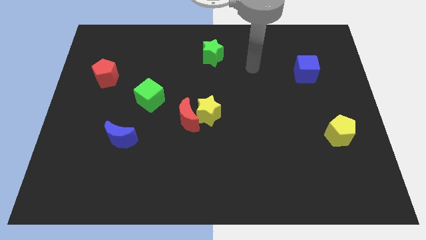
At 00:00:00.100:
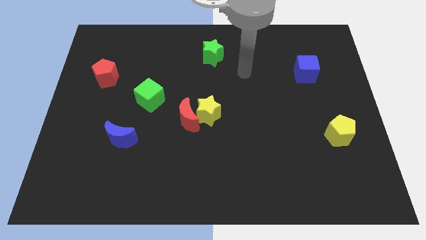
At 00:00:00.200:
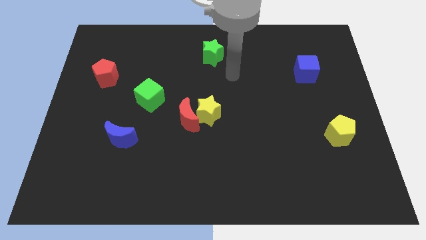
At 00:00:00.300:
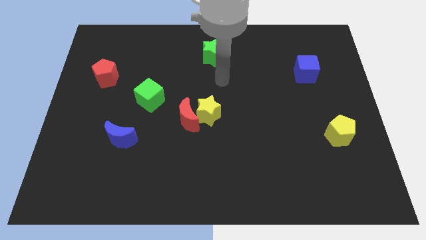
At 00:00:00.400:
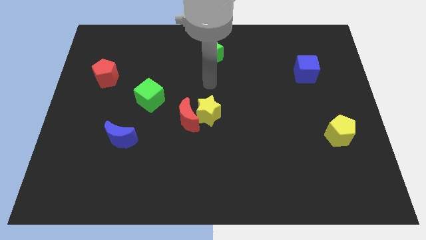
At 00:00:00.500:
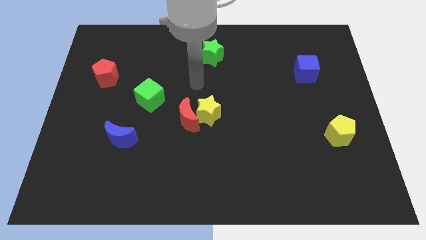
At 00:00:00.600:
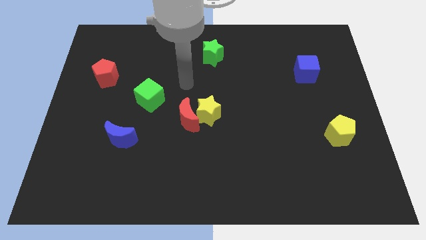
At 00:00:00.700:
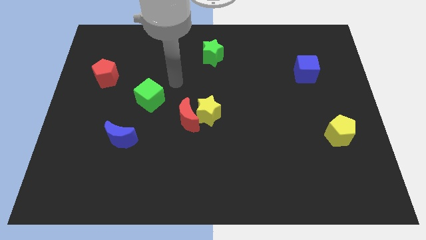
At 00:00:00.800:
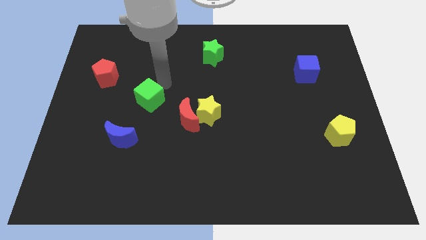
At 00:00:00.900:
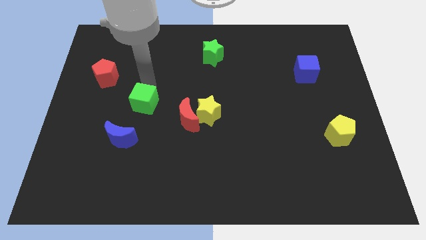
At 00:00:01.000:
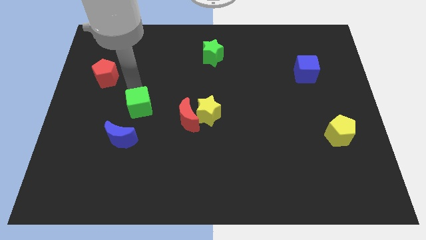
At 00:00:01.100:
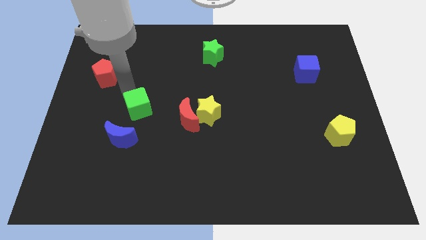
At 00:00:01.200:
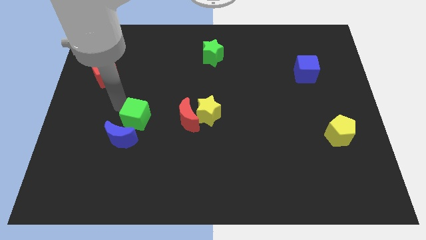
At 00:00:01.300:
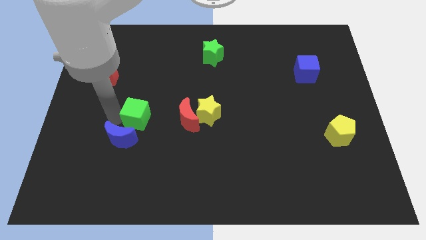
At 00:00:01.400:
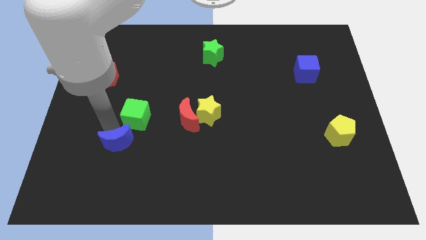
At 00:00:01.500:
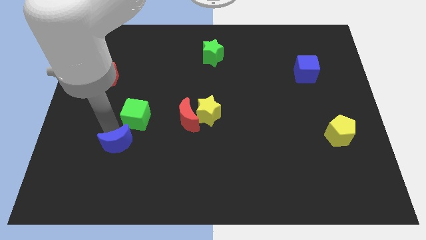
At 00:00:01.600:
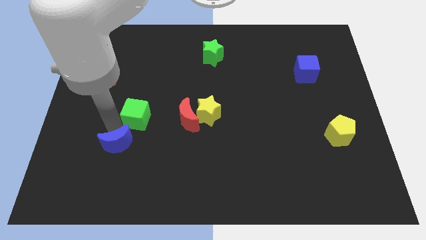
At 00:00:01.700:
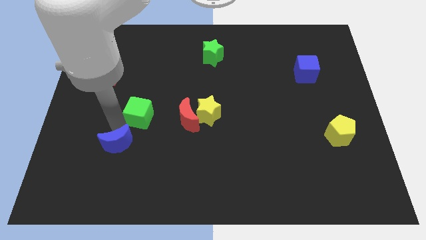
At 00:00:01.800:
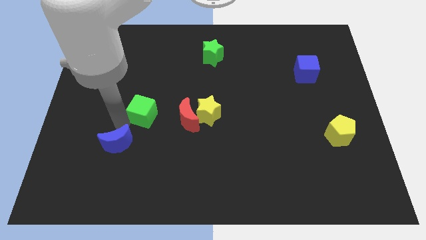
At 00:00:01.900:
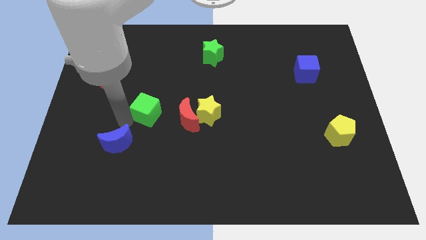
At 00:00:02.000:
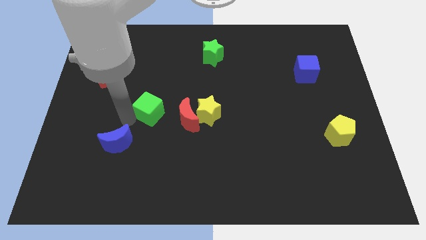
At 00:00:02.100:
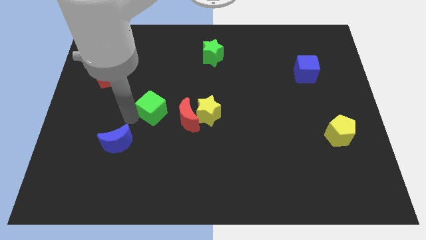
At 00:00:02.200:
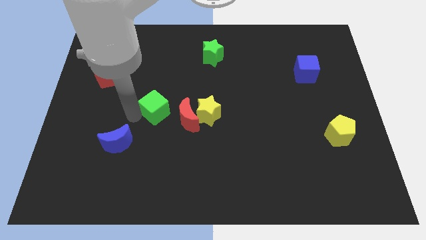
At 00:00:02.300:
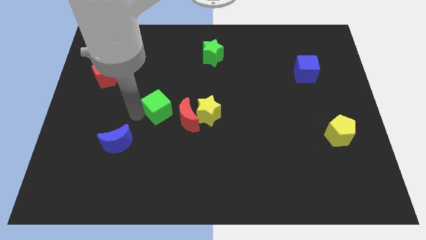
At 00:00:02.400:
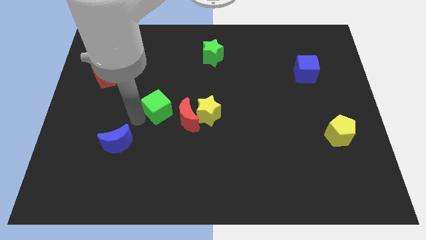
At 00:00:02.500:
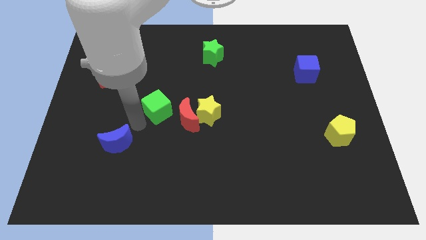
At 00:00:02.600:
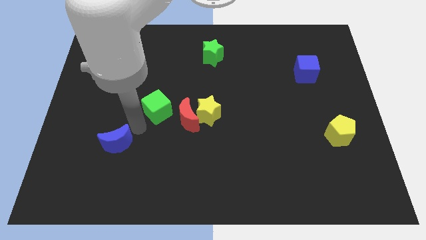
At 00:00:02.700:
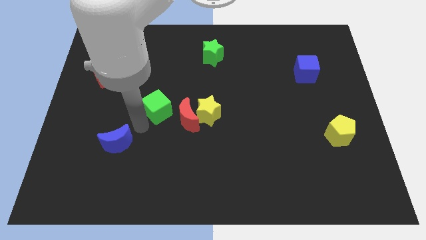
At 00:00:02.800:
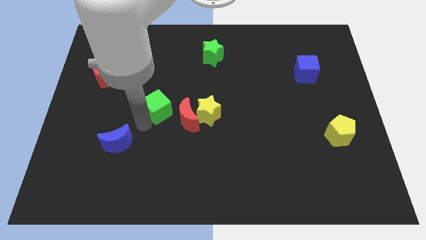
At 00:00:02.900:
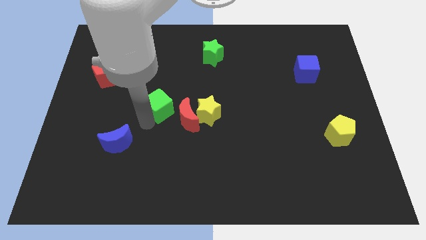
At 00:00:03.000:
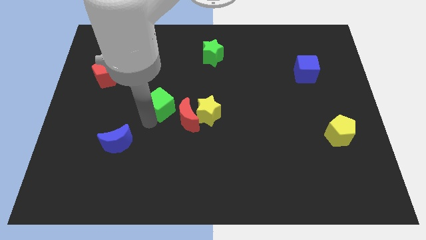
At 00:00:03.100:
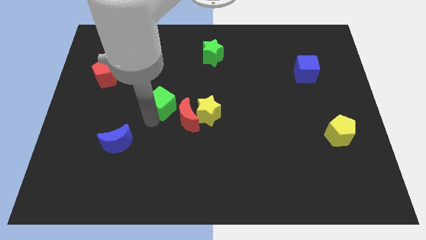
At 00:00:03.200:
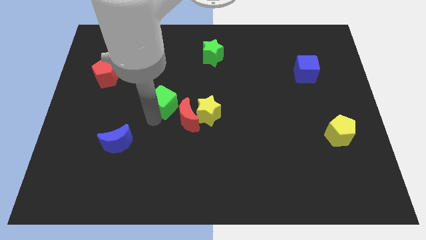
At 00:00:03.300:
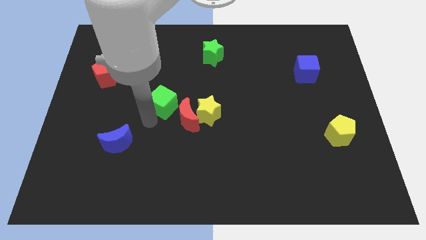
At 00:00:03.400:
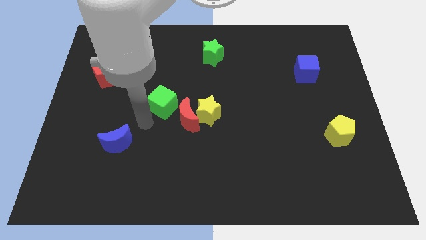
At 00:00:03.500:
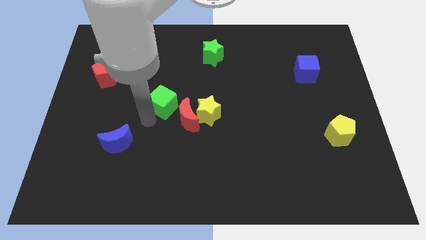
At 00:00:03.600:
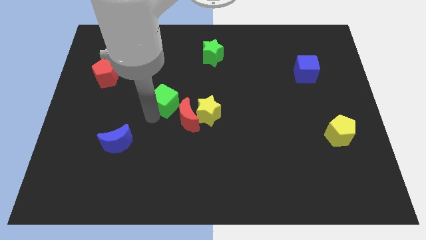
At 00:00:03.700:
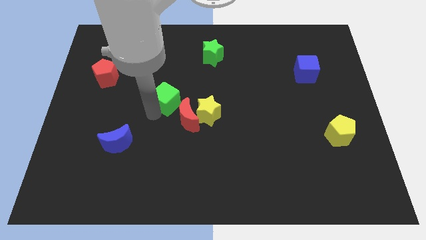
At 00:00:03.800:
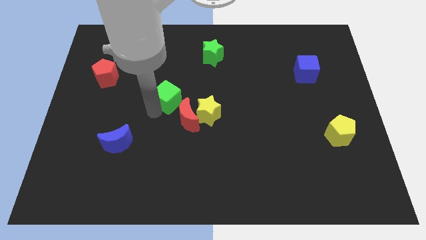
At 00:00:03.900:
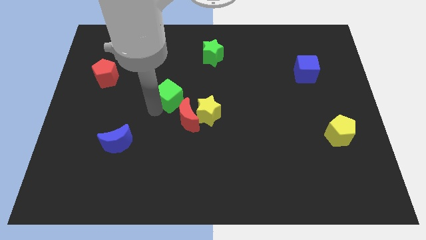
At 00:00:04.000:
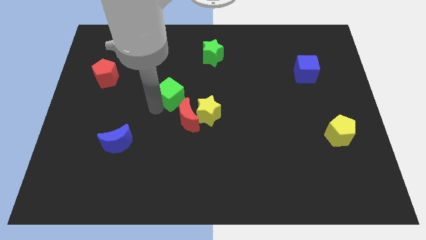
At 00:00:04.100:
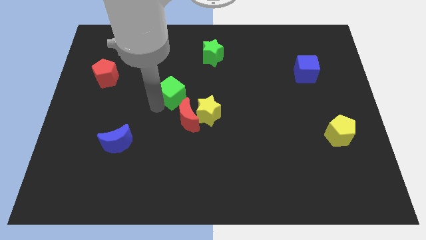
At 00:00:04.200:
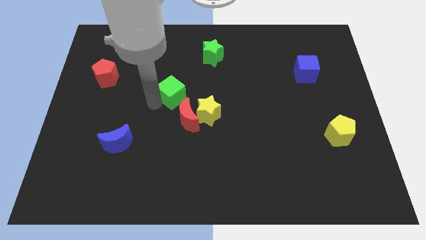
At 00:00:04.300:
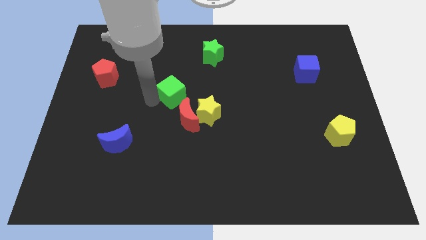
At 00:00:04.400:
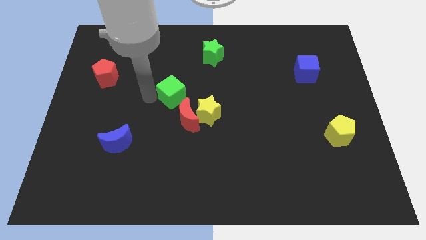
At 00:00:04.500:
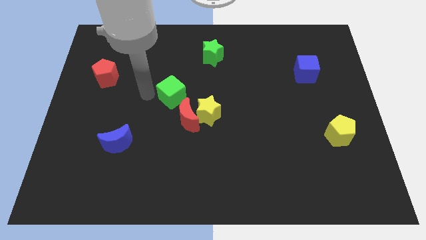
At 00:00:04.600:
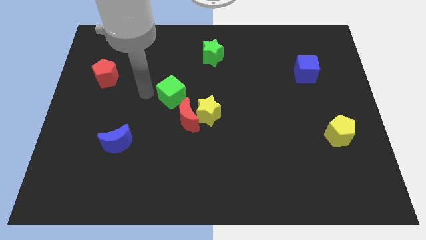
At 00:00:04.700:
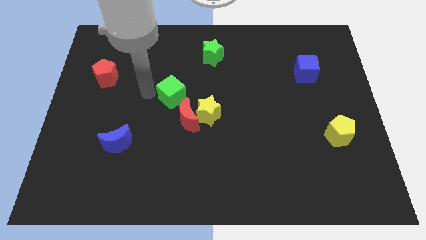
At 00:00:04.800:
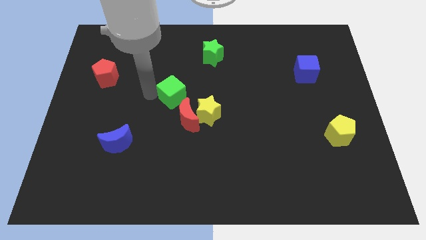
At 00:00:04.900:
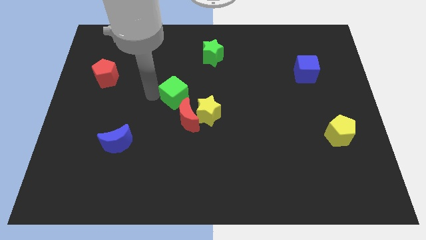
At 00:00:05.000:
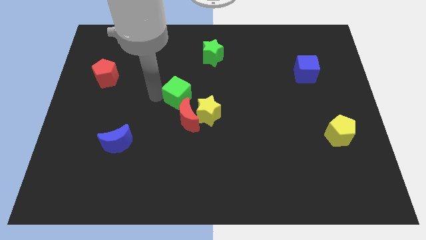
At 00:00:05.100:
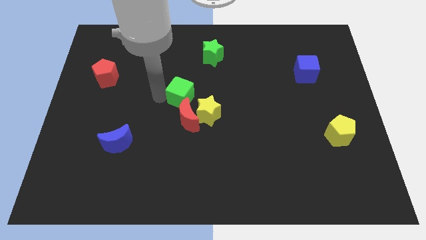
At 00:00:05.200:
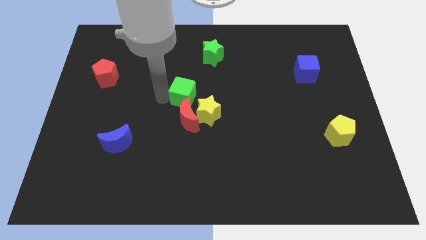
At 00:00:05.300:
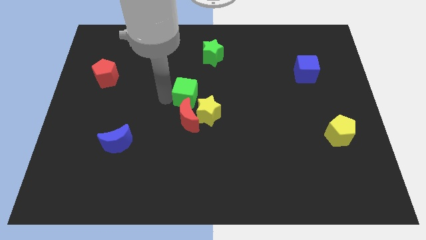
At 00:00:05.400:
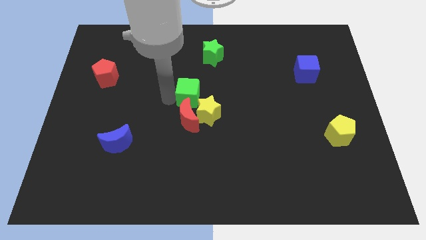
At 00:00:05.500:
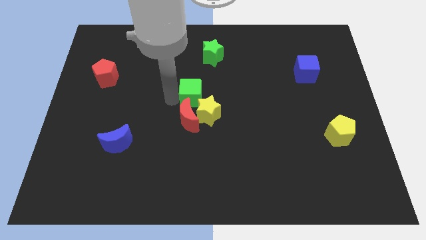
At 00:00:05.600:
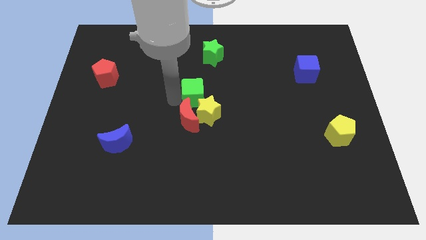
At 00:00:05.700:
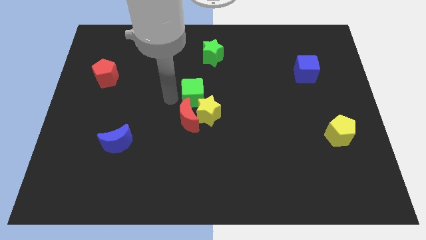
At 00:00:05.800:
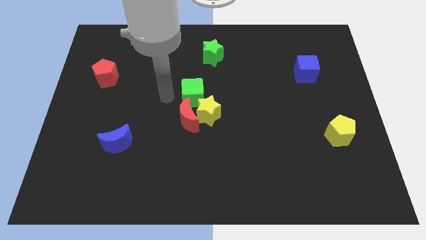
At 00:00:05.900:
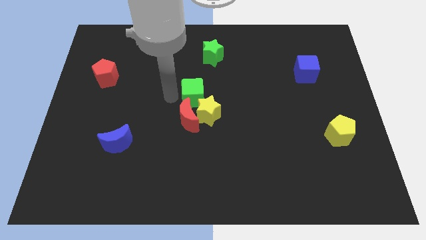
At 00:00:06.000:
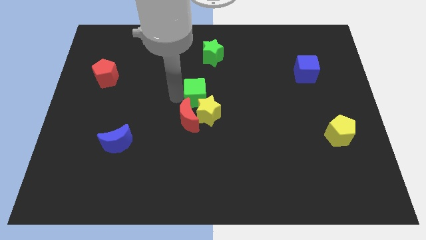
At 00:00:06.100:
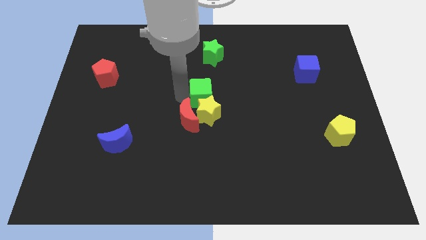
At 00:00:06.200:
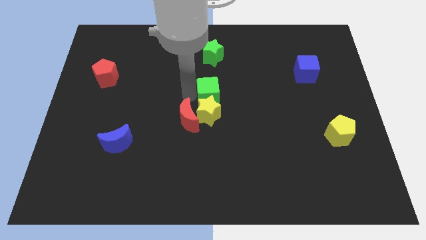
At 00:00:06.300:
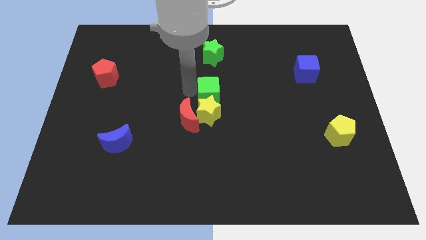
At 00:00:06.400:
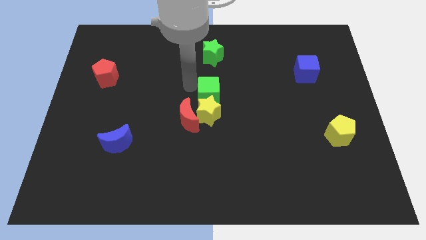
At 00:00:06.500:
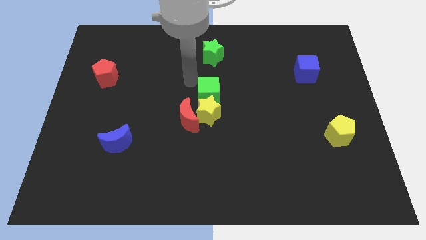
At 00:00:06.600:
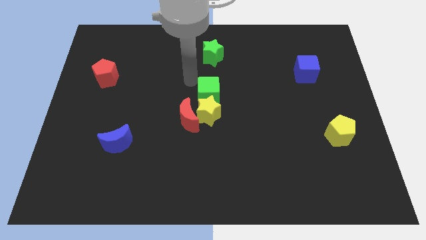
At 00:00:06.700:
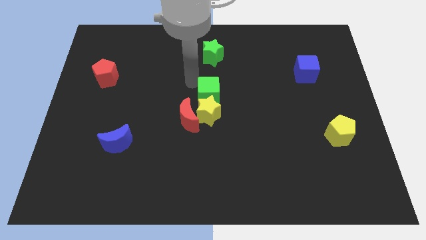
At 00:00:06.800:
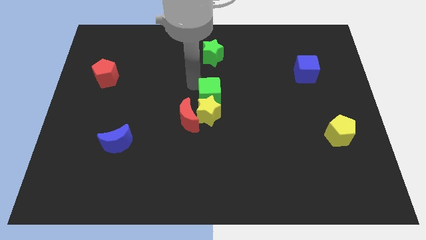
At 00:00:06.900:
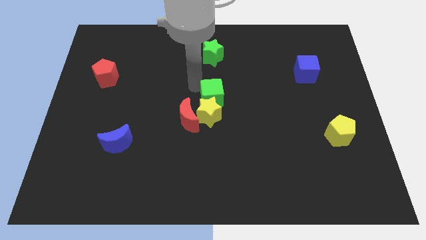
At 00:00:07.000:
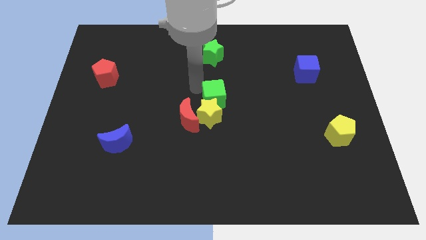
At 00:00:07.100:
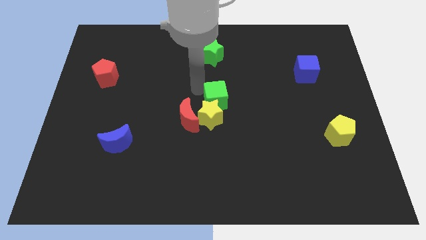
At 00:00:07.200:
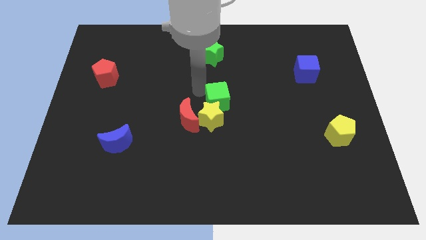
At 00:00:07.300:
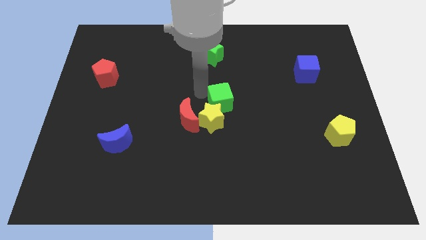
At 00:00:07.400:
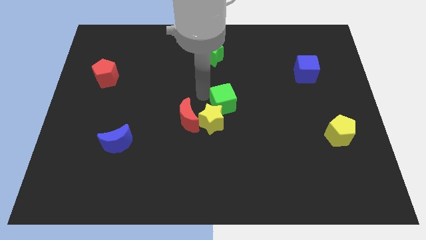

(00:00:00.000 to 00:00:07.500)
slide the green cube right of the red moon
